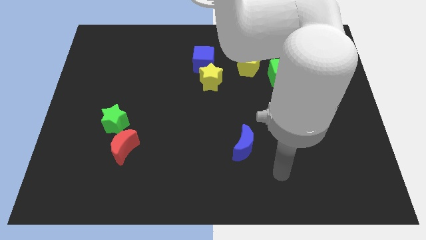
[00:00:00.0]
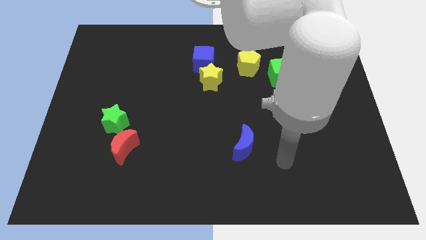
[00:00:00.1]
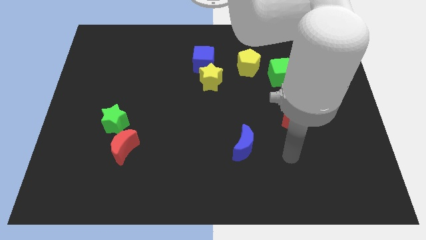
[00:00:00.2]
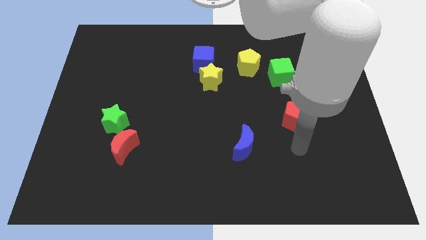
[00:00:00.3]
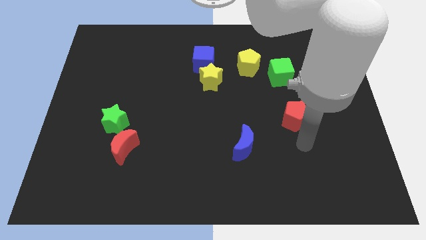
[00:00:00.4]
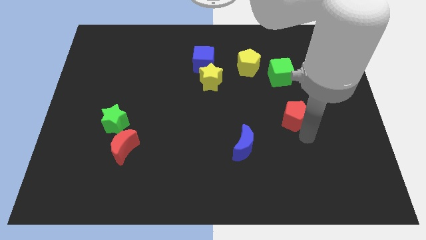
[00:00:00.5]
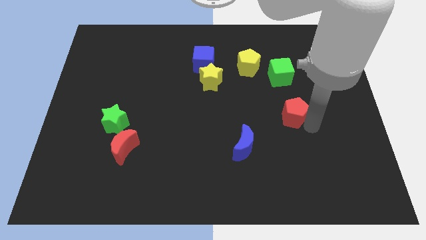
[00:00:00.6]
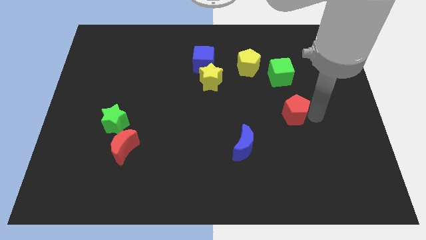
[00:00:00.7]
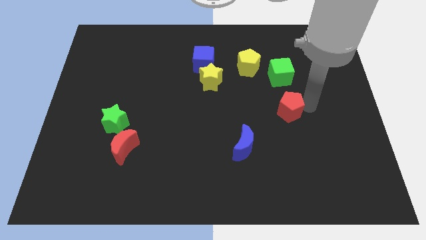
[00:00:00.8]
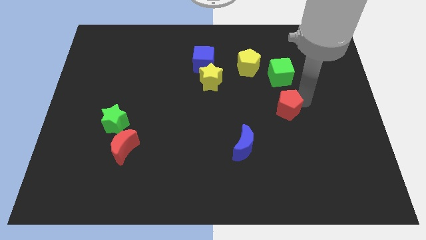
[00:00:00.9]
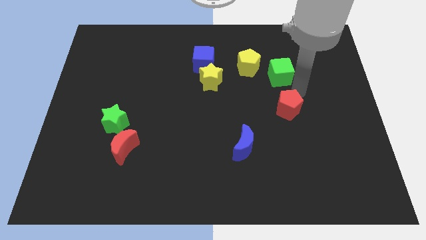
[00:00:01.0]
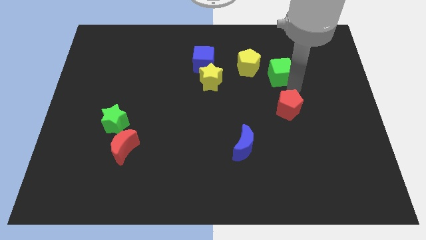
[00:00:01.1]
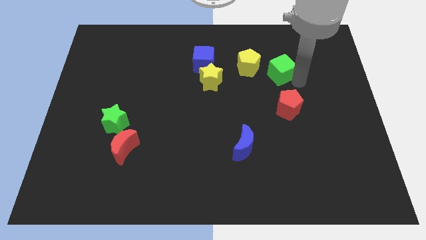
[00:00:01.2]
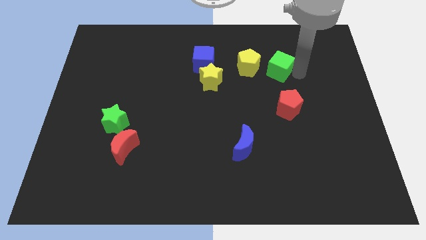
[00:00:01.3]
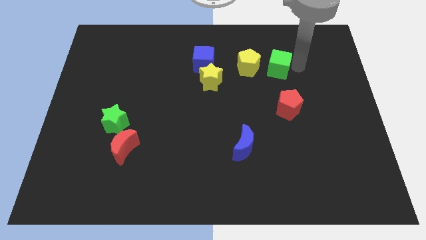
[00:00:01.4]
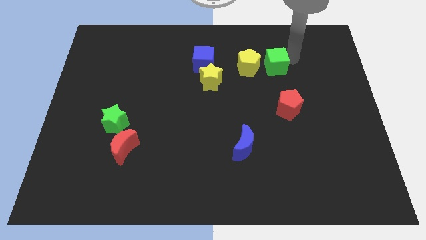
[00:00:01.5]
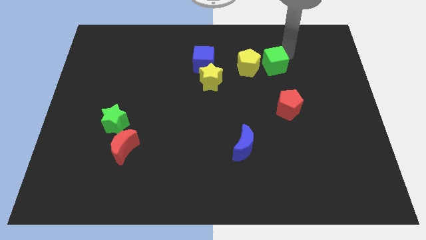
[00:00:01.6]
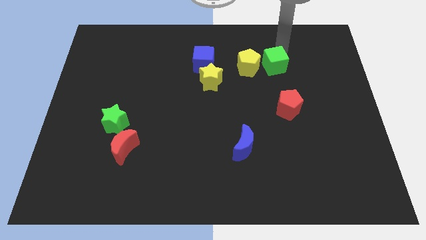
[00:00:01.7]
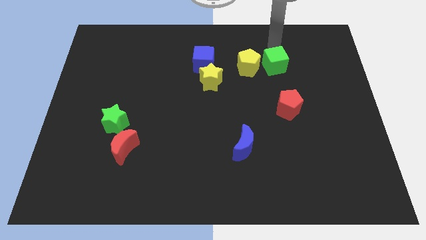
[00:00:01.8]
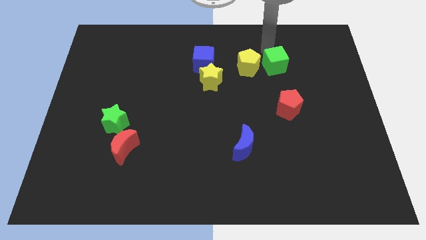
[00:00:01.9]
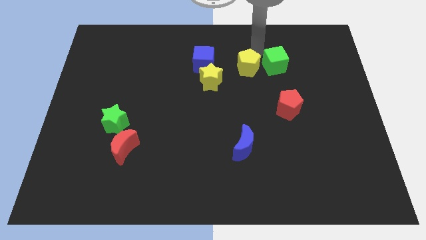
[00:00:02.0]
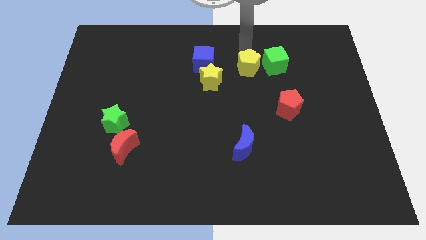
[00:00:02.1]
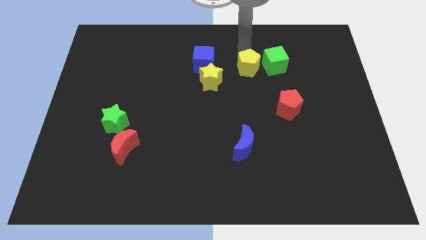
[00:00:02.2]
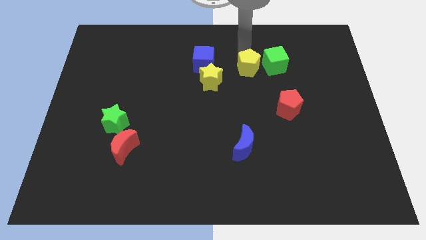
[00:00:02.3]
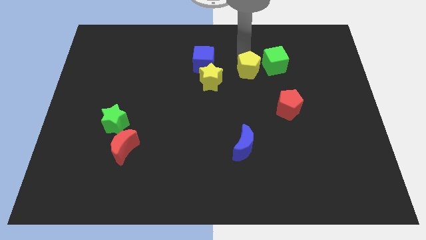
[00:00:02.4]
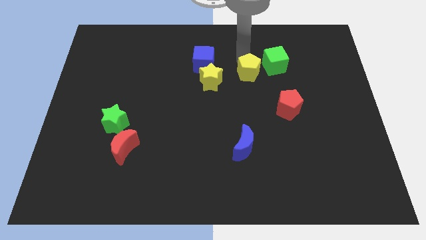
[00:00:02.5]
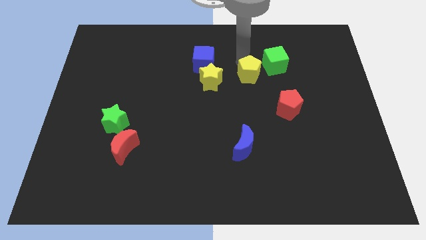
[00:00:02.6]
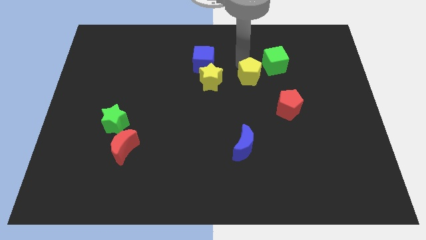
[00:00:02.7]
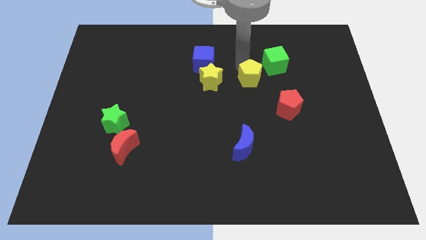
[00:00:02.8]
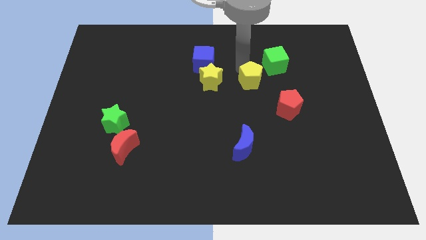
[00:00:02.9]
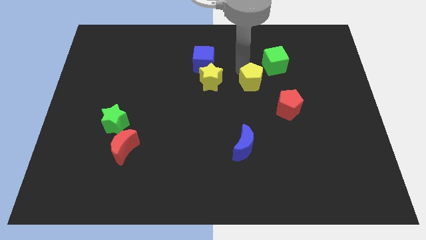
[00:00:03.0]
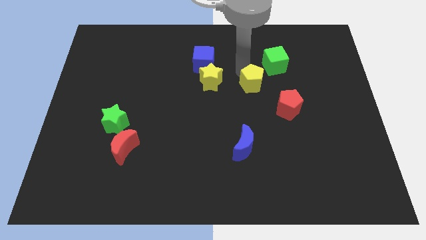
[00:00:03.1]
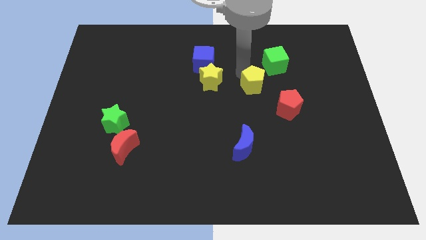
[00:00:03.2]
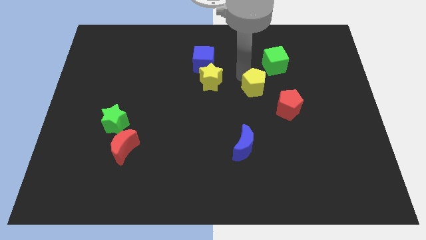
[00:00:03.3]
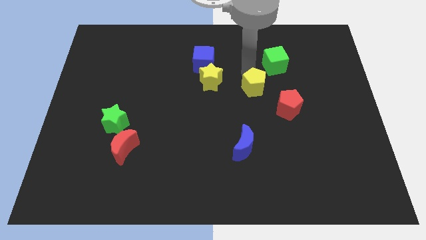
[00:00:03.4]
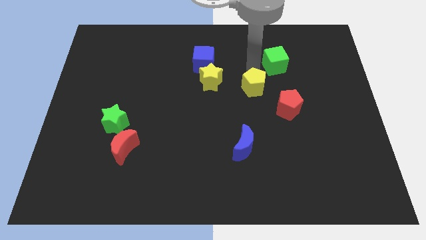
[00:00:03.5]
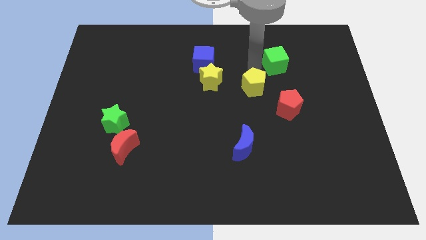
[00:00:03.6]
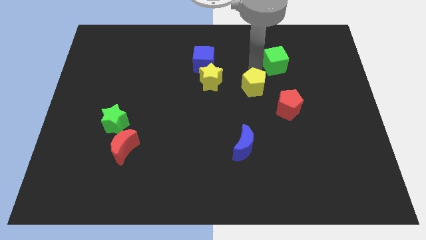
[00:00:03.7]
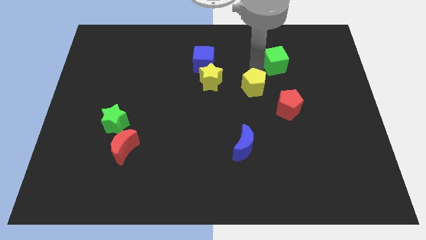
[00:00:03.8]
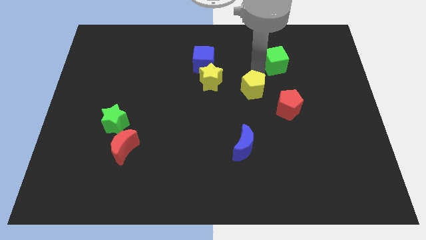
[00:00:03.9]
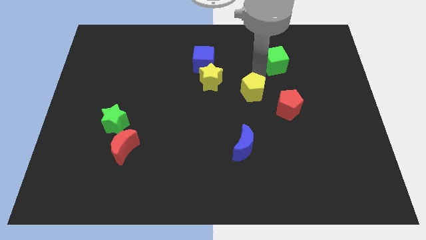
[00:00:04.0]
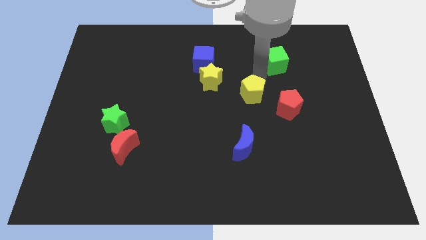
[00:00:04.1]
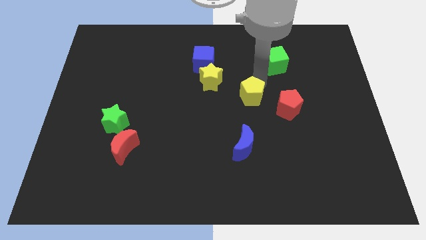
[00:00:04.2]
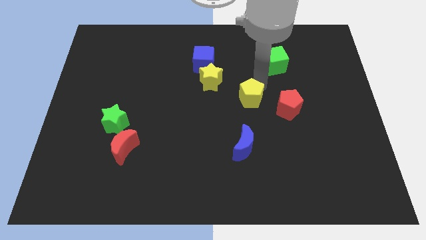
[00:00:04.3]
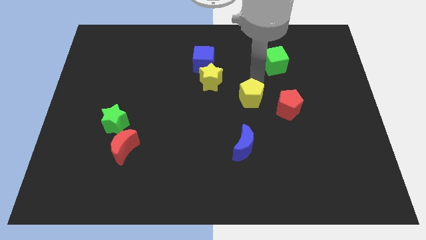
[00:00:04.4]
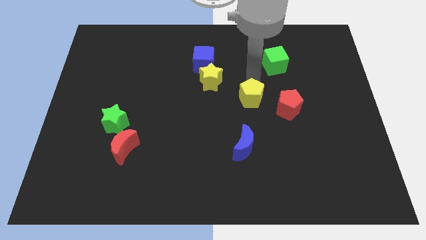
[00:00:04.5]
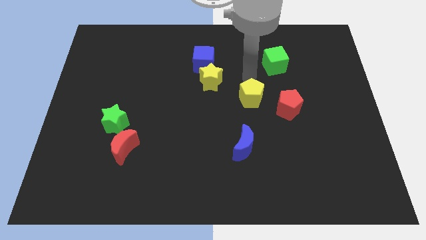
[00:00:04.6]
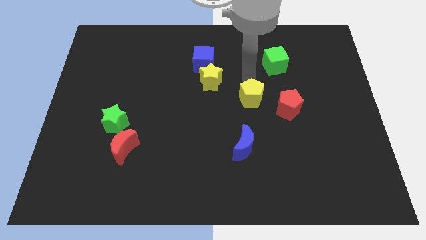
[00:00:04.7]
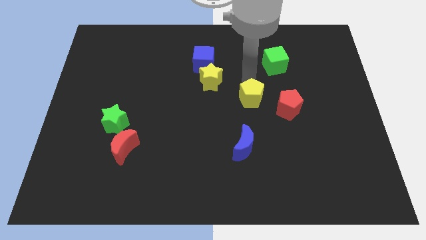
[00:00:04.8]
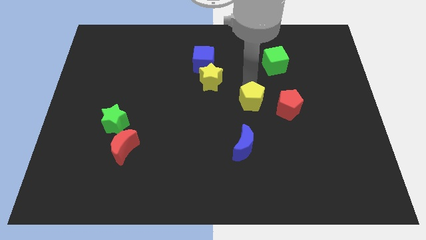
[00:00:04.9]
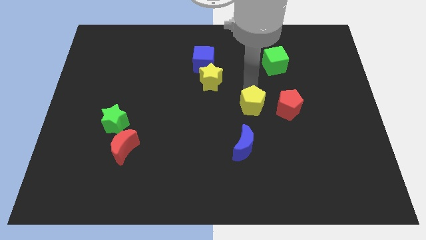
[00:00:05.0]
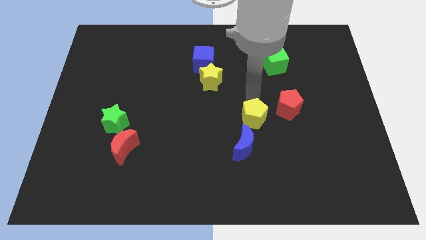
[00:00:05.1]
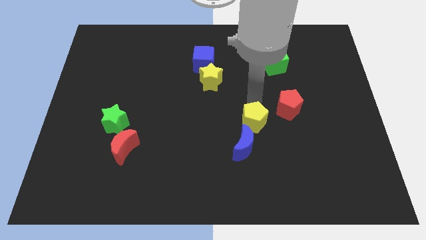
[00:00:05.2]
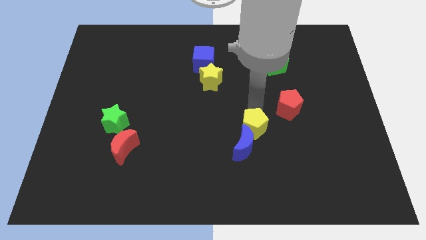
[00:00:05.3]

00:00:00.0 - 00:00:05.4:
move the yellow pentagon towards the blue moon

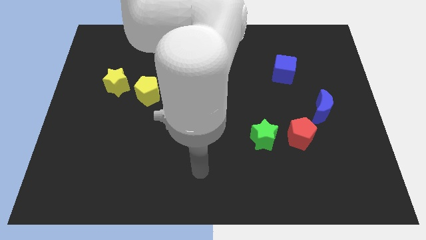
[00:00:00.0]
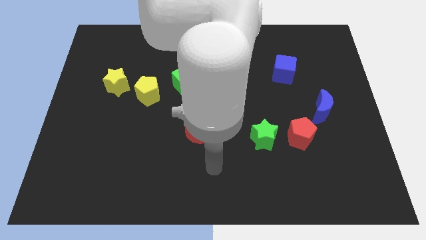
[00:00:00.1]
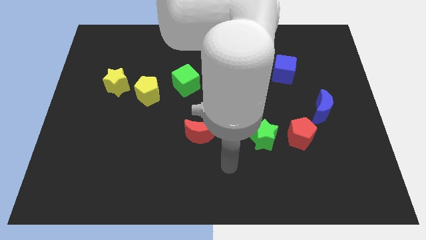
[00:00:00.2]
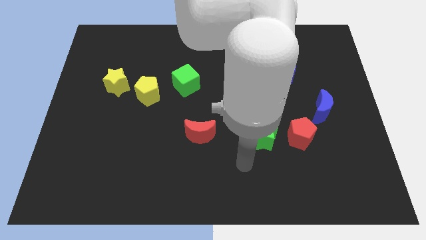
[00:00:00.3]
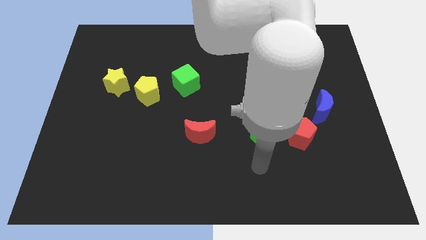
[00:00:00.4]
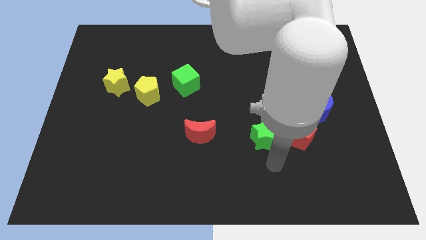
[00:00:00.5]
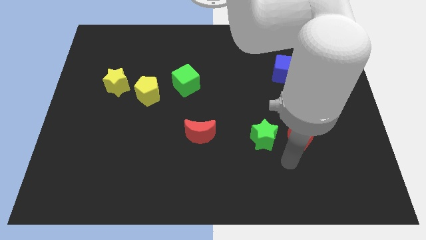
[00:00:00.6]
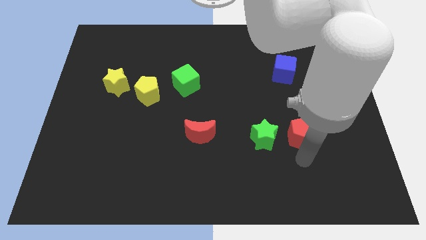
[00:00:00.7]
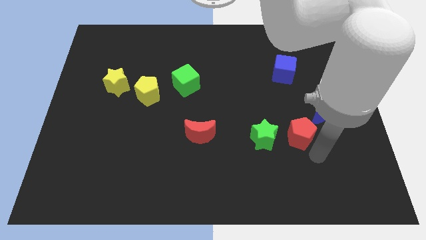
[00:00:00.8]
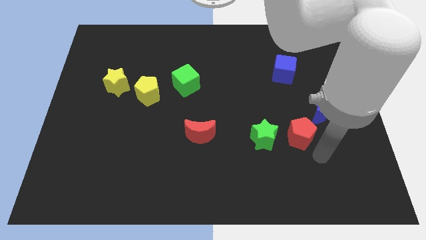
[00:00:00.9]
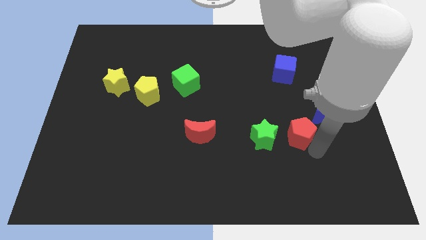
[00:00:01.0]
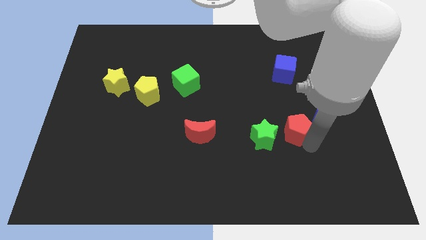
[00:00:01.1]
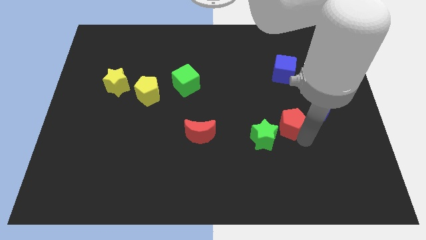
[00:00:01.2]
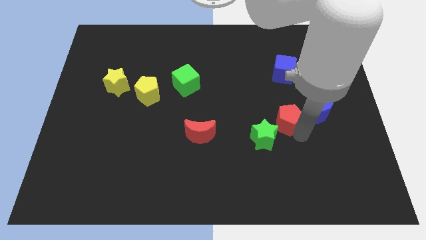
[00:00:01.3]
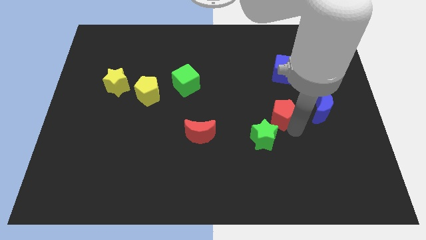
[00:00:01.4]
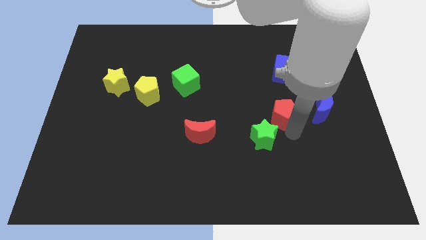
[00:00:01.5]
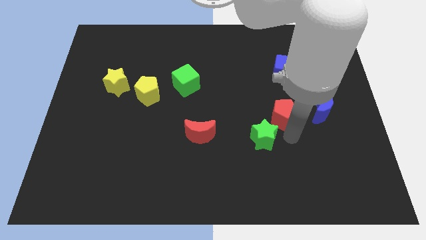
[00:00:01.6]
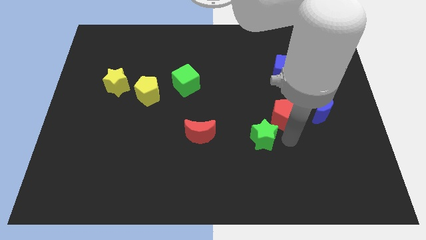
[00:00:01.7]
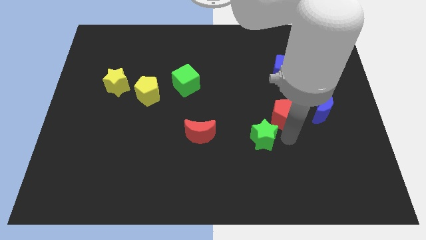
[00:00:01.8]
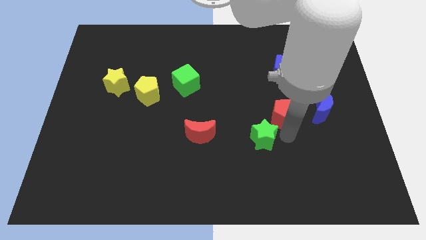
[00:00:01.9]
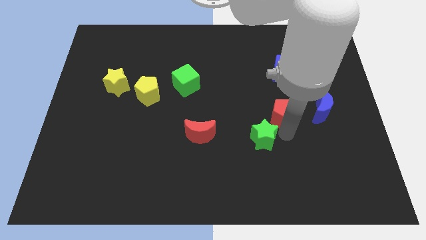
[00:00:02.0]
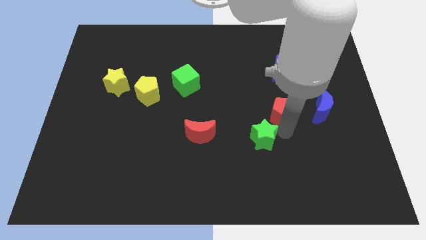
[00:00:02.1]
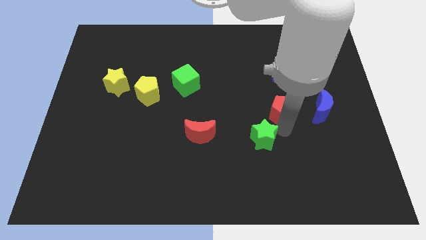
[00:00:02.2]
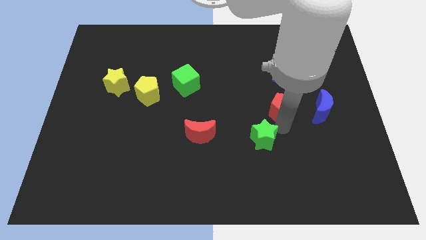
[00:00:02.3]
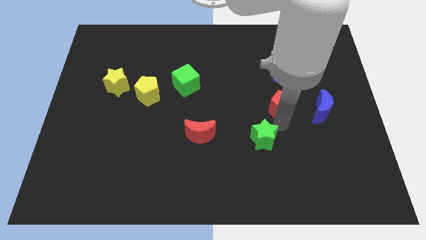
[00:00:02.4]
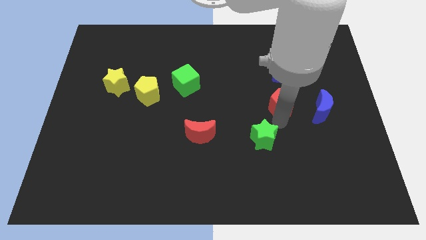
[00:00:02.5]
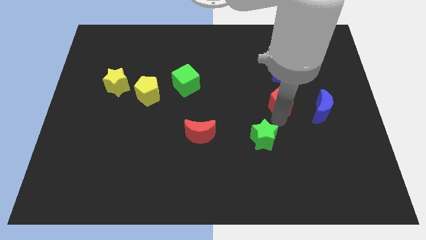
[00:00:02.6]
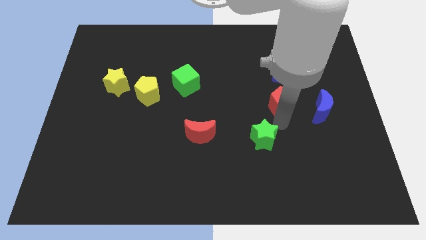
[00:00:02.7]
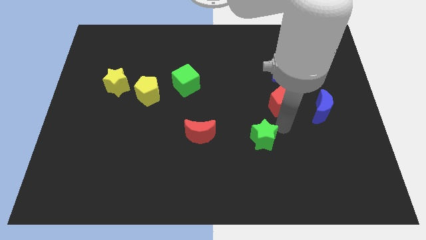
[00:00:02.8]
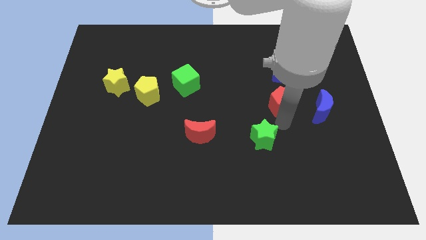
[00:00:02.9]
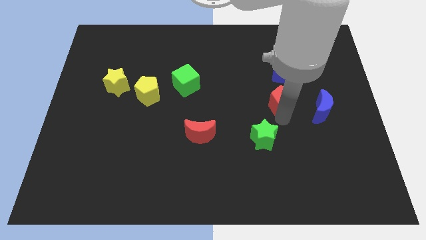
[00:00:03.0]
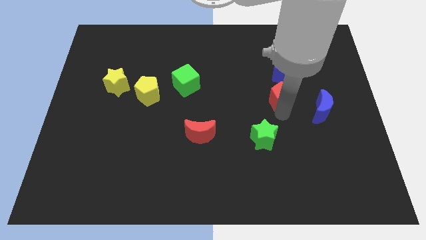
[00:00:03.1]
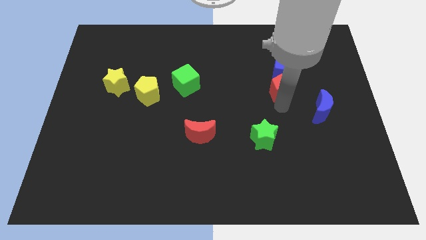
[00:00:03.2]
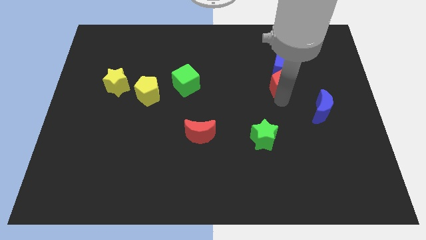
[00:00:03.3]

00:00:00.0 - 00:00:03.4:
put the red pentagon next to the blue cube
